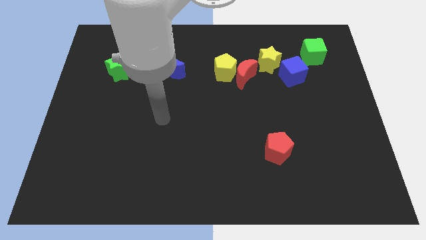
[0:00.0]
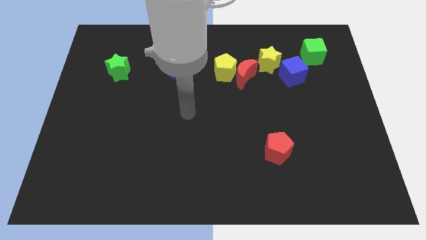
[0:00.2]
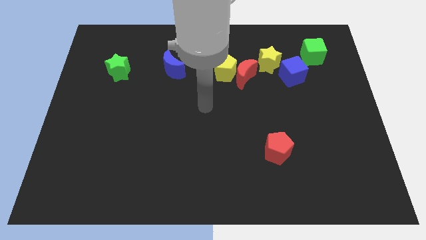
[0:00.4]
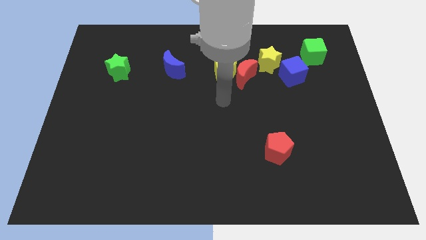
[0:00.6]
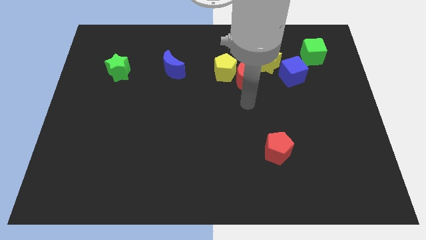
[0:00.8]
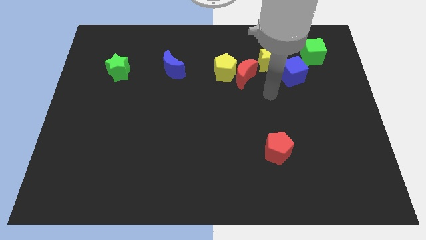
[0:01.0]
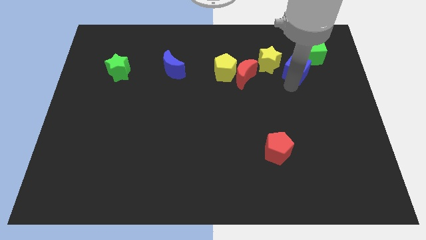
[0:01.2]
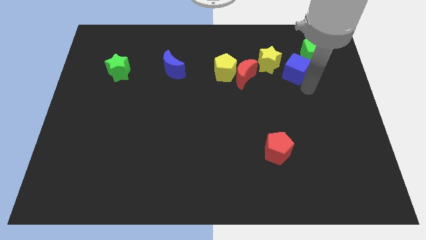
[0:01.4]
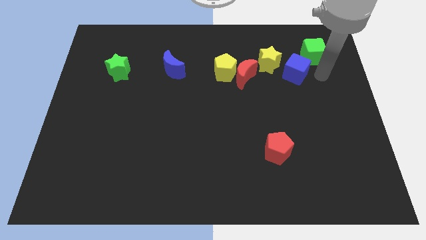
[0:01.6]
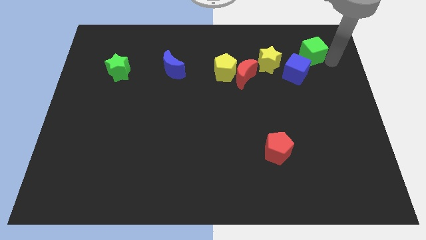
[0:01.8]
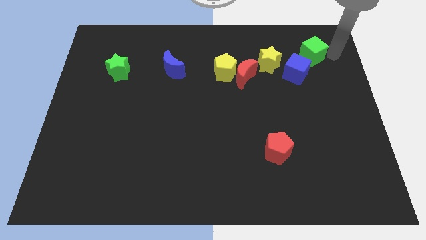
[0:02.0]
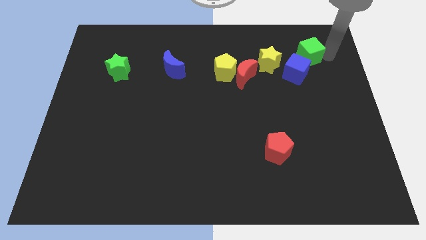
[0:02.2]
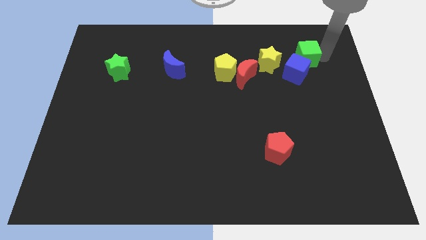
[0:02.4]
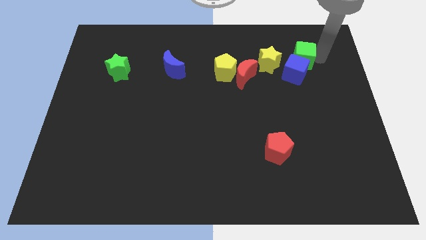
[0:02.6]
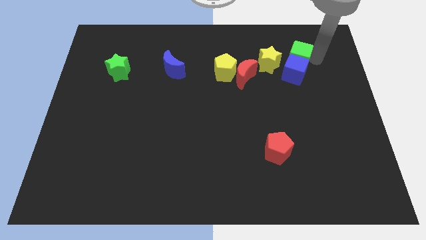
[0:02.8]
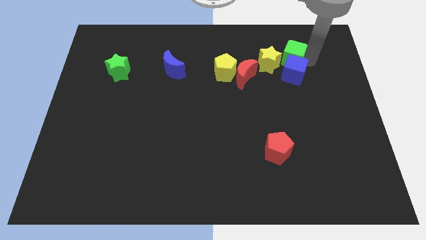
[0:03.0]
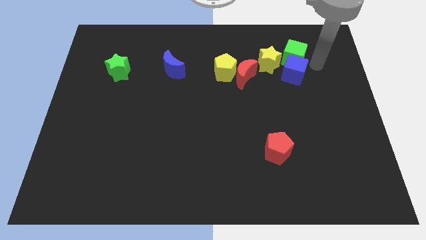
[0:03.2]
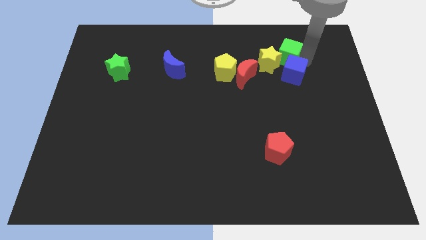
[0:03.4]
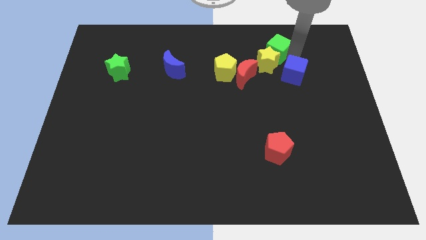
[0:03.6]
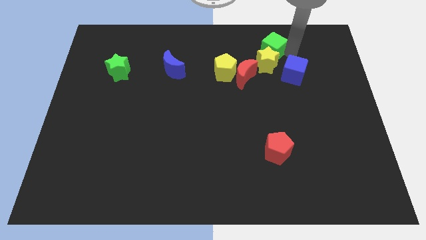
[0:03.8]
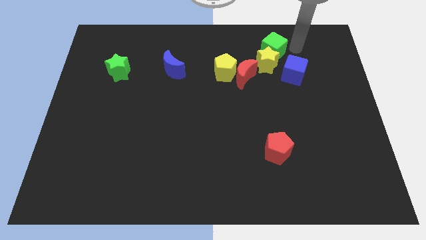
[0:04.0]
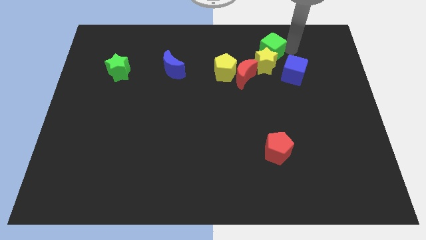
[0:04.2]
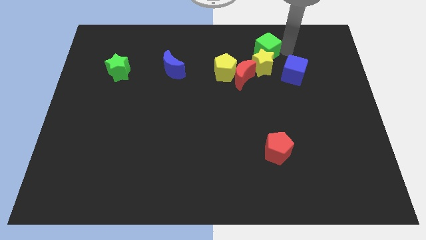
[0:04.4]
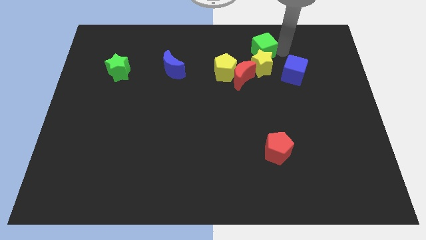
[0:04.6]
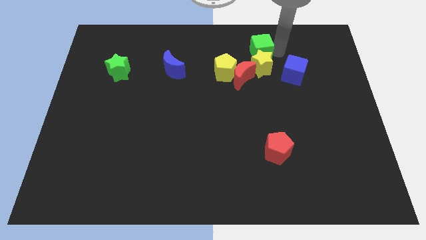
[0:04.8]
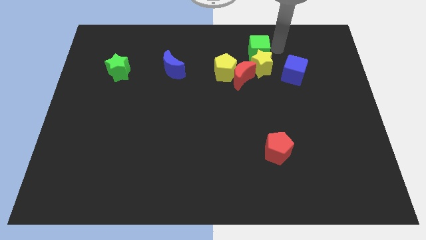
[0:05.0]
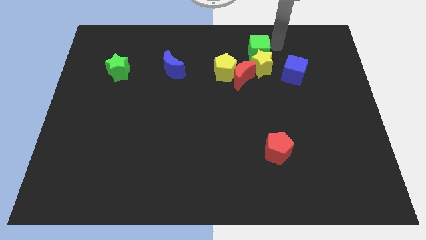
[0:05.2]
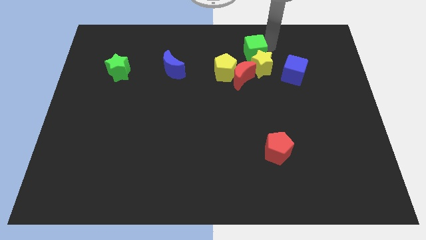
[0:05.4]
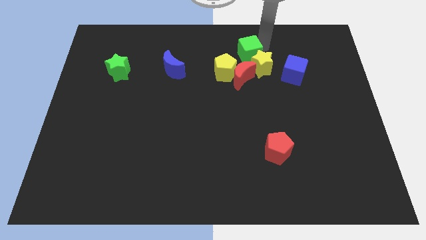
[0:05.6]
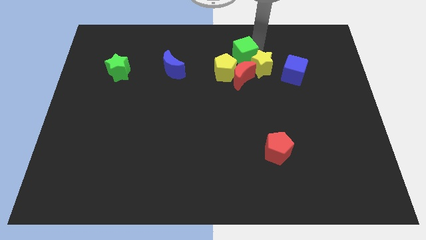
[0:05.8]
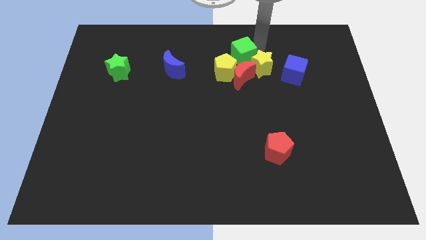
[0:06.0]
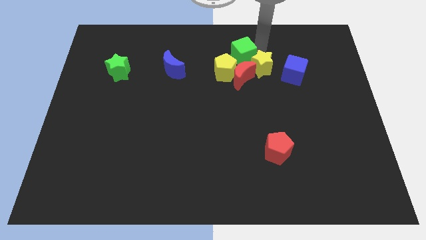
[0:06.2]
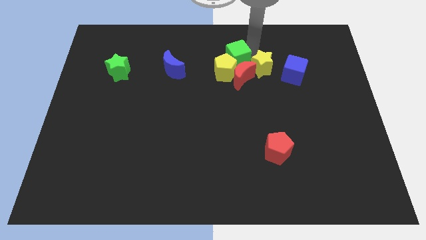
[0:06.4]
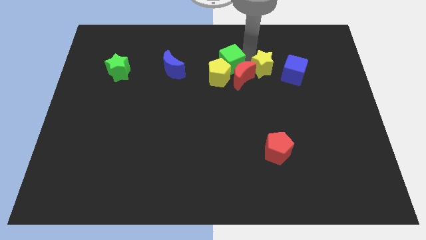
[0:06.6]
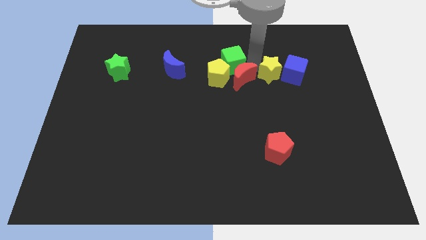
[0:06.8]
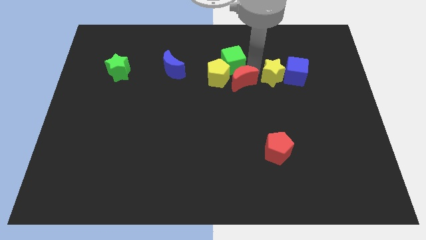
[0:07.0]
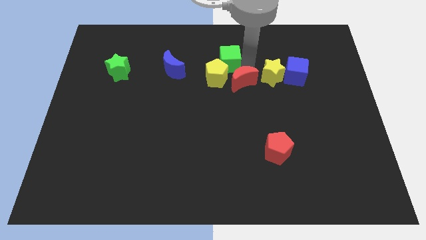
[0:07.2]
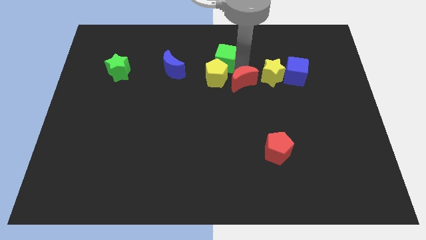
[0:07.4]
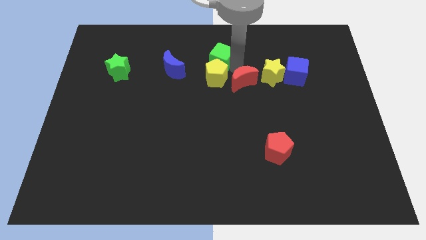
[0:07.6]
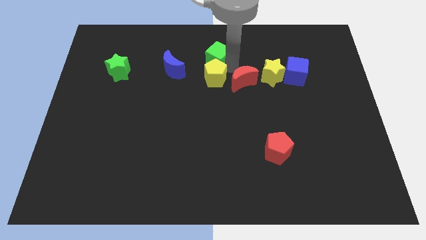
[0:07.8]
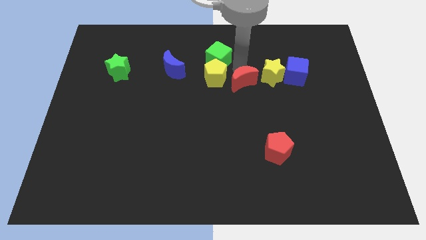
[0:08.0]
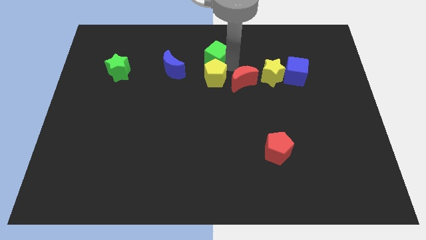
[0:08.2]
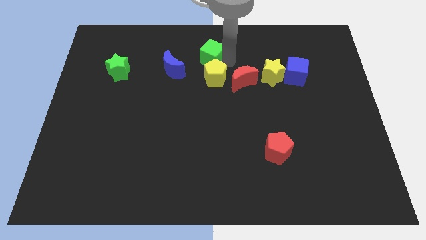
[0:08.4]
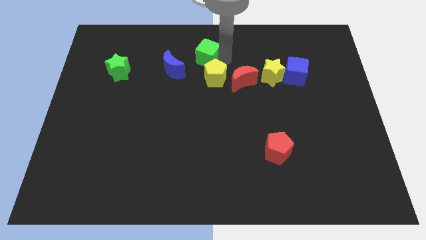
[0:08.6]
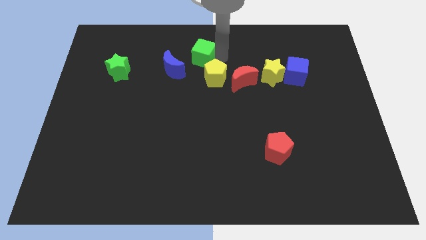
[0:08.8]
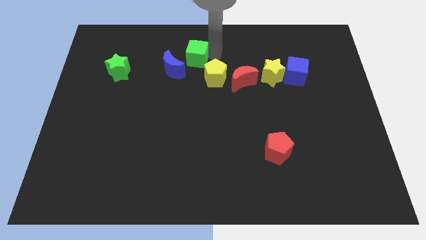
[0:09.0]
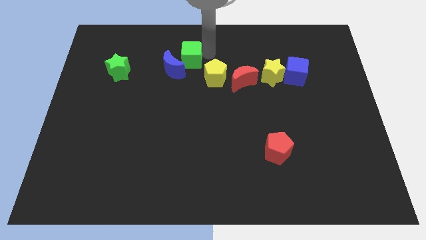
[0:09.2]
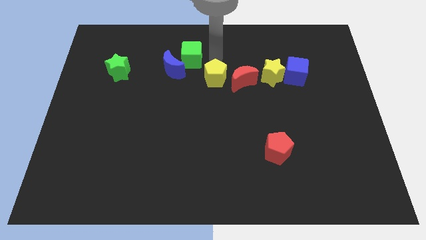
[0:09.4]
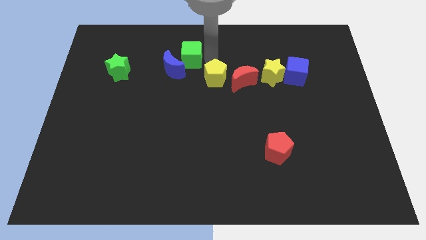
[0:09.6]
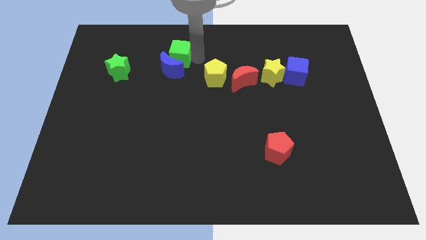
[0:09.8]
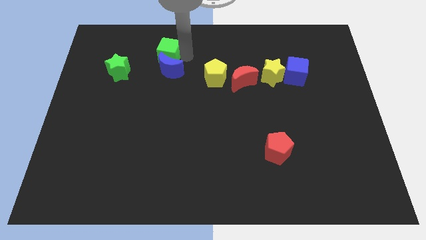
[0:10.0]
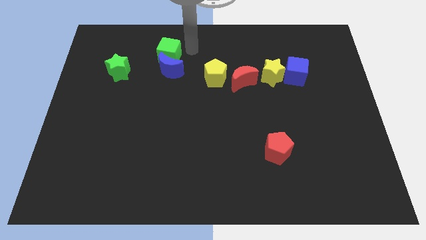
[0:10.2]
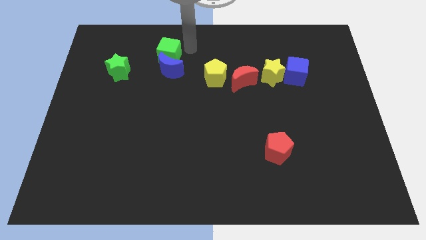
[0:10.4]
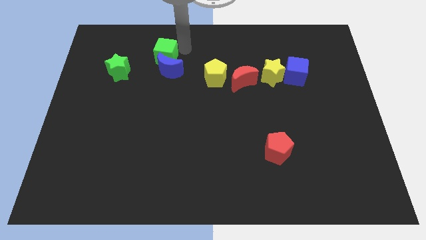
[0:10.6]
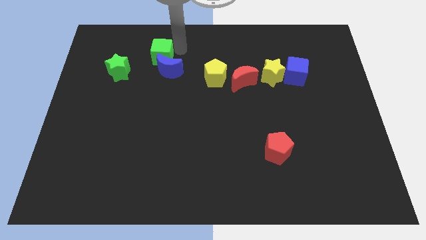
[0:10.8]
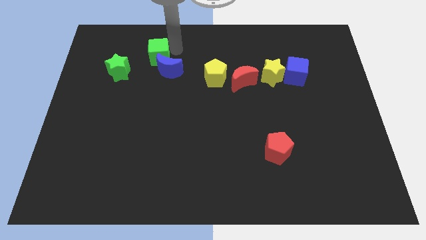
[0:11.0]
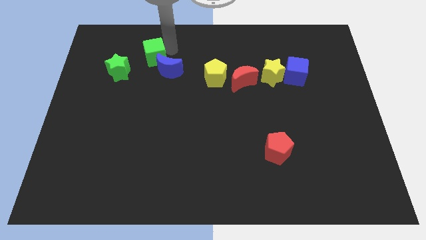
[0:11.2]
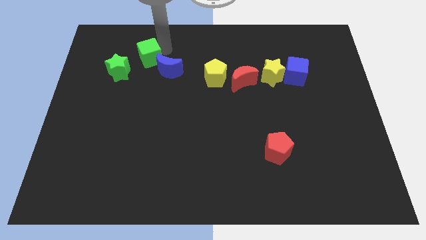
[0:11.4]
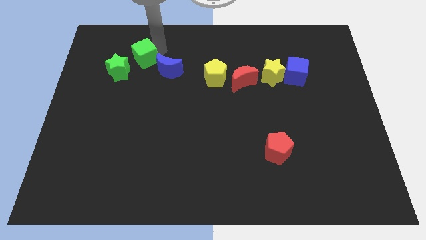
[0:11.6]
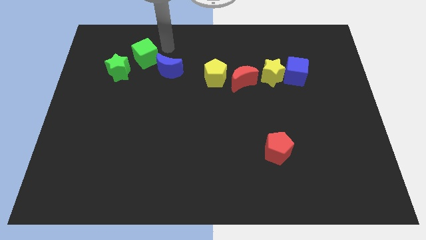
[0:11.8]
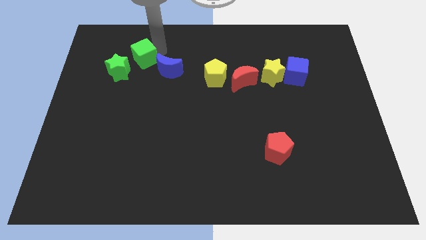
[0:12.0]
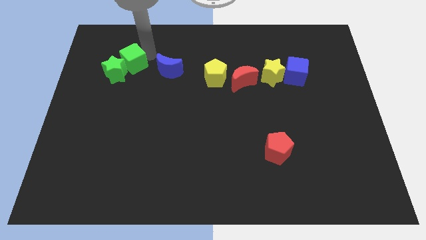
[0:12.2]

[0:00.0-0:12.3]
put the green cube next to the green star

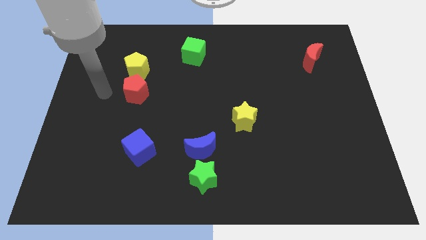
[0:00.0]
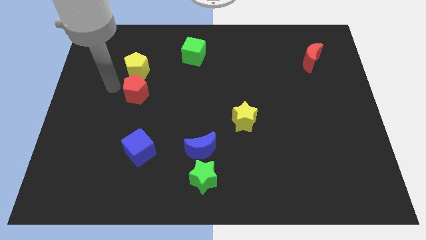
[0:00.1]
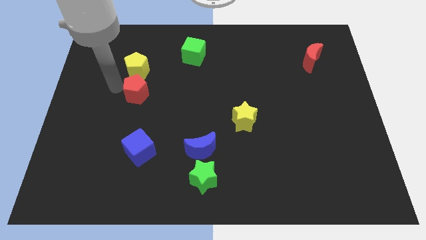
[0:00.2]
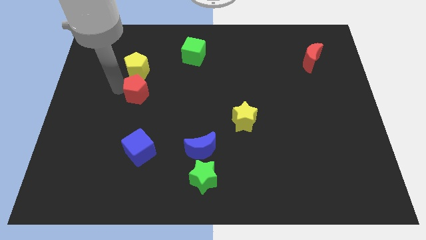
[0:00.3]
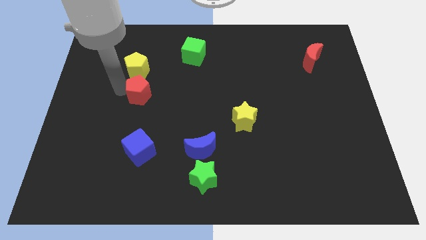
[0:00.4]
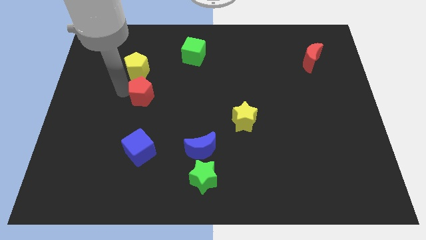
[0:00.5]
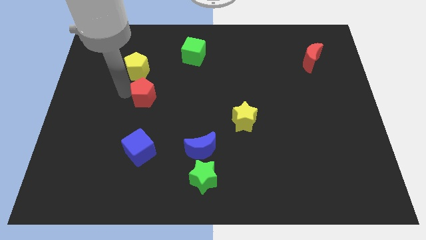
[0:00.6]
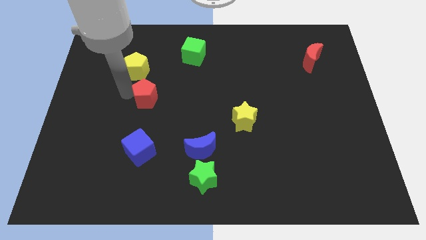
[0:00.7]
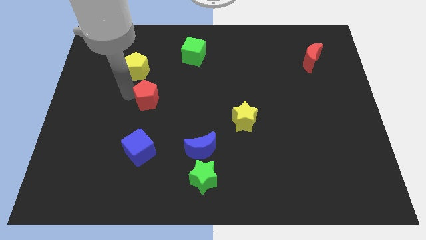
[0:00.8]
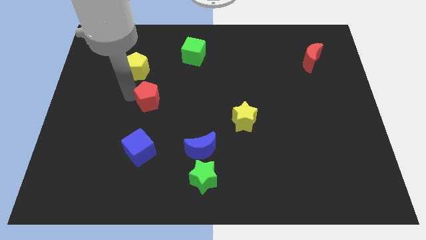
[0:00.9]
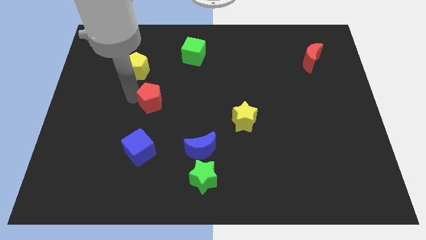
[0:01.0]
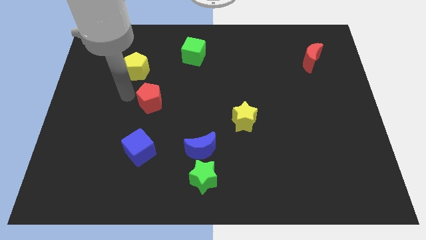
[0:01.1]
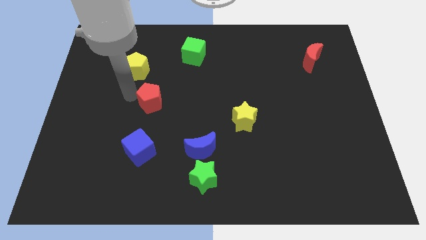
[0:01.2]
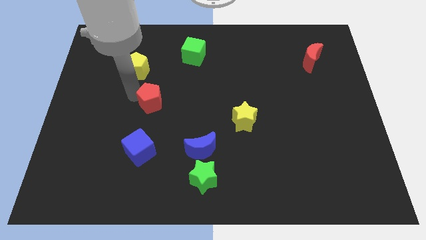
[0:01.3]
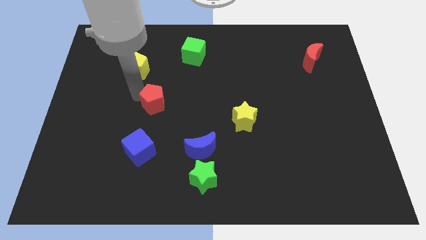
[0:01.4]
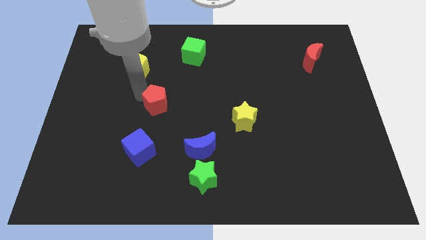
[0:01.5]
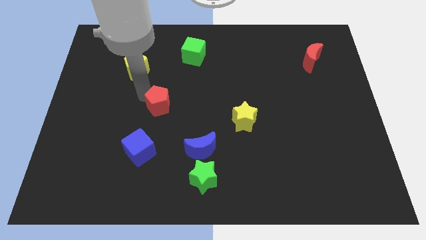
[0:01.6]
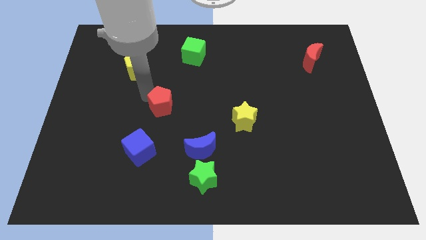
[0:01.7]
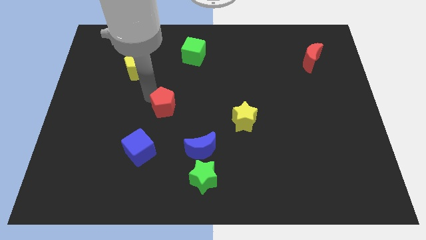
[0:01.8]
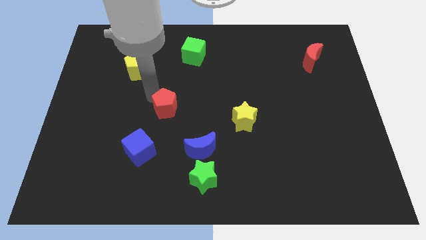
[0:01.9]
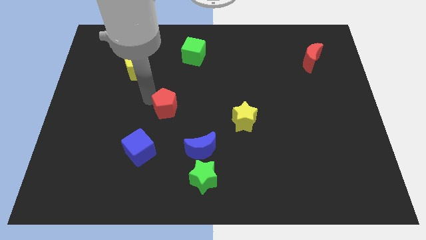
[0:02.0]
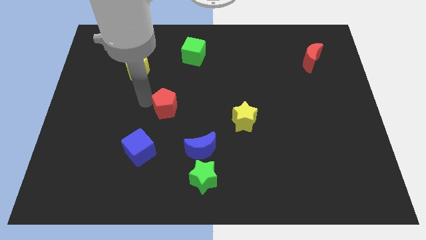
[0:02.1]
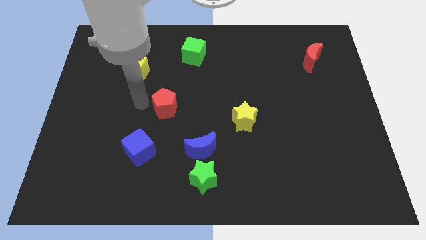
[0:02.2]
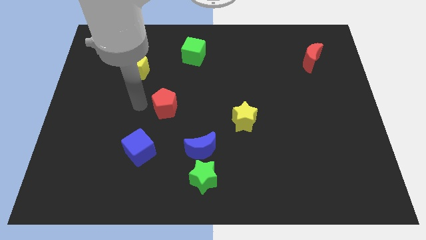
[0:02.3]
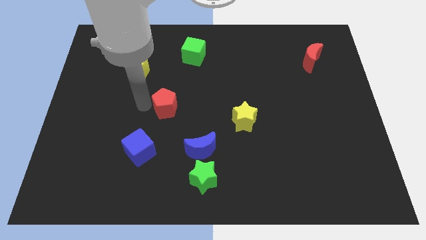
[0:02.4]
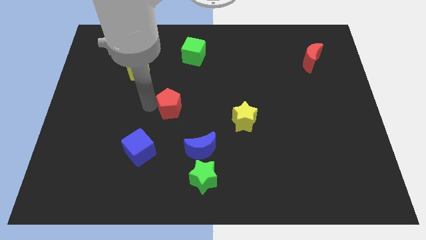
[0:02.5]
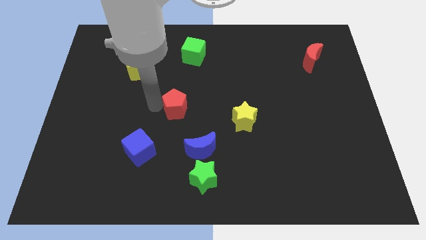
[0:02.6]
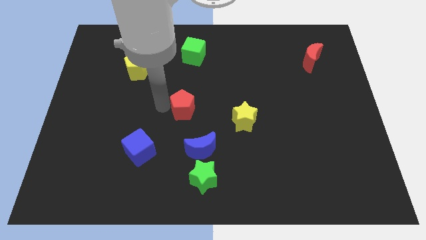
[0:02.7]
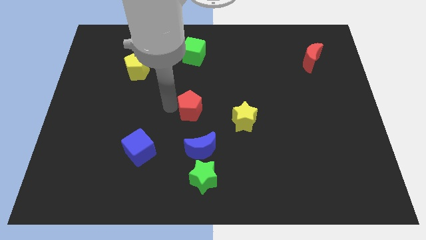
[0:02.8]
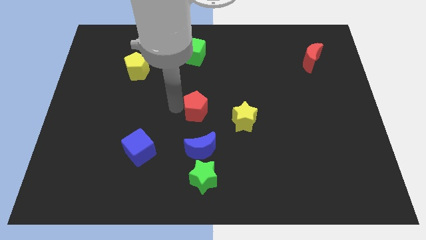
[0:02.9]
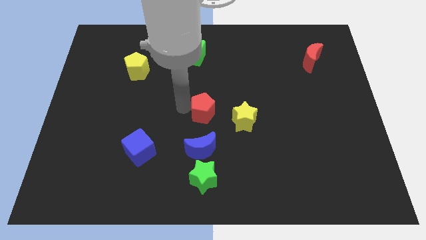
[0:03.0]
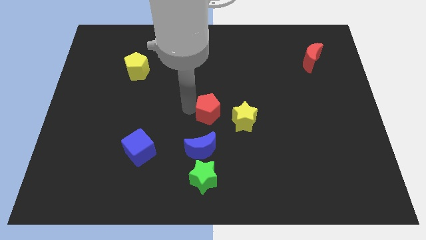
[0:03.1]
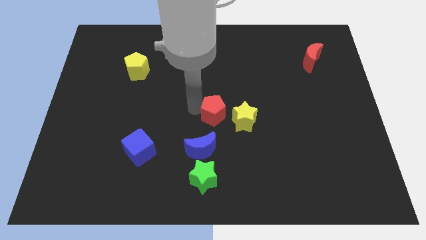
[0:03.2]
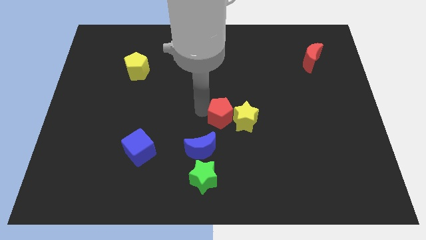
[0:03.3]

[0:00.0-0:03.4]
put the red pentagon to the yellow star
